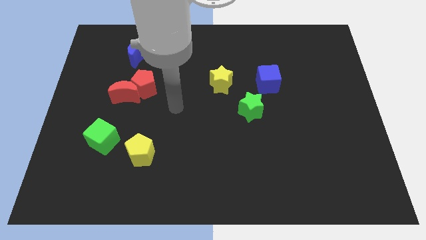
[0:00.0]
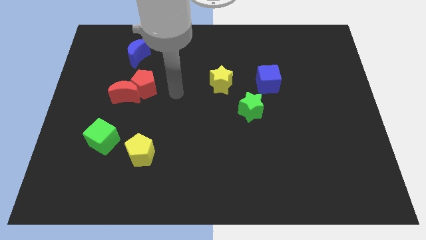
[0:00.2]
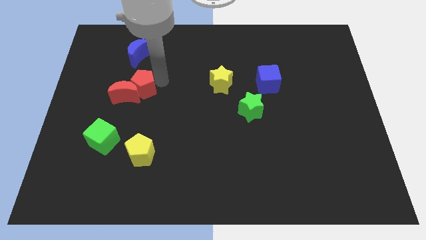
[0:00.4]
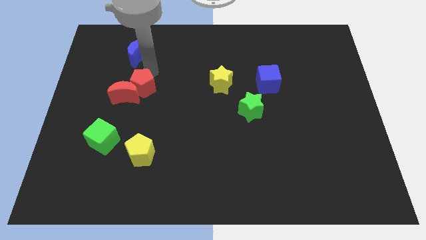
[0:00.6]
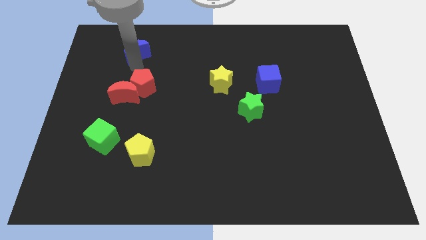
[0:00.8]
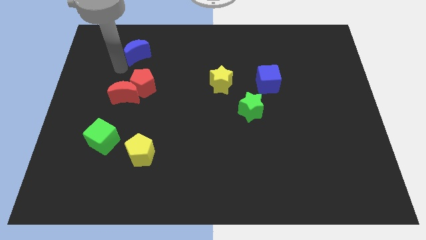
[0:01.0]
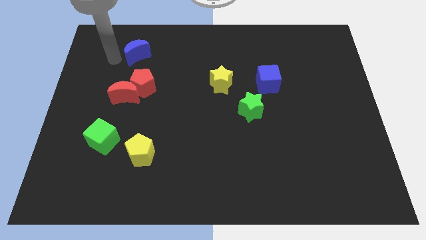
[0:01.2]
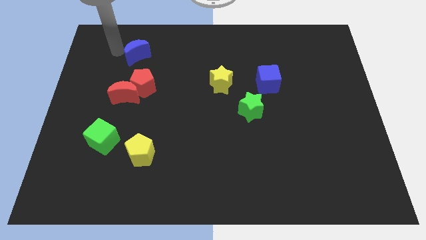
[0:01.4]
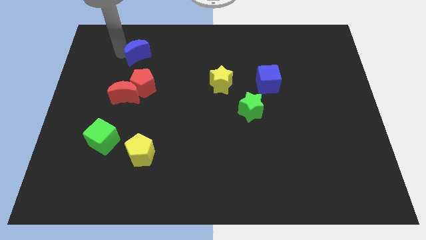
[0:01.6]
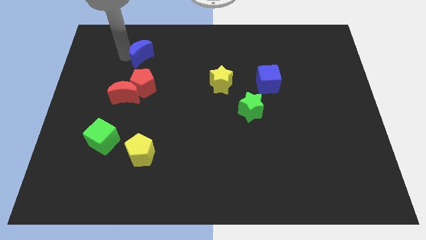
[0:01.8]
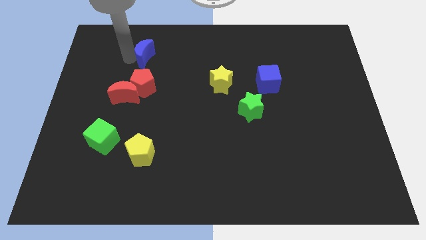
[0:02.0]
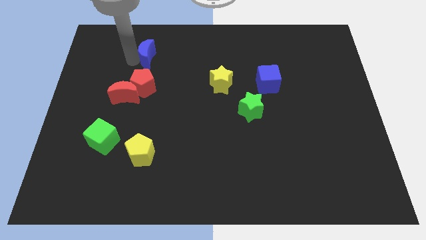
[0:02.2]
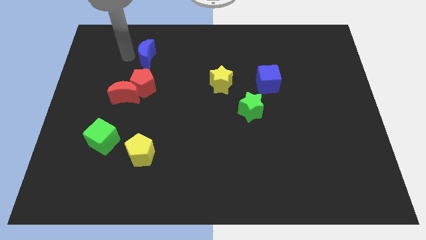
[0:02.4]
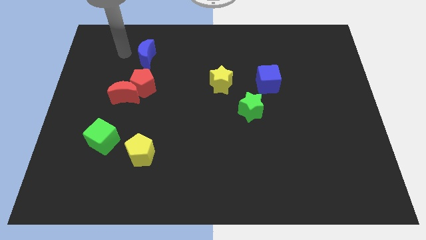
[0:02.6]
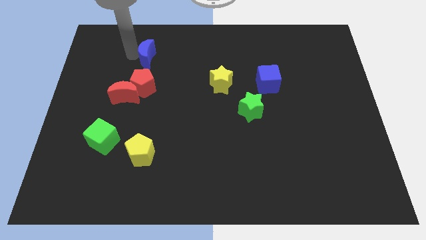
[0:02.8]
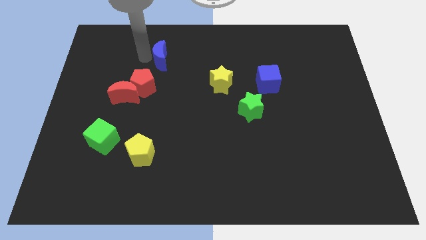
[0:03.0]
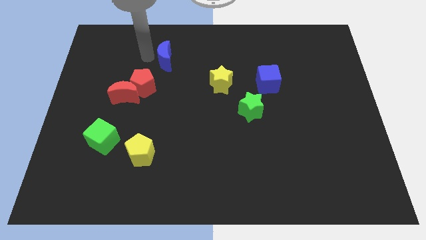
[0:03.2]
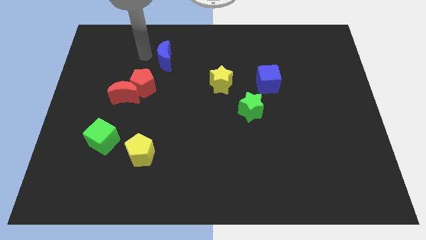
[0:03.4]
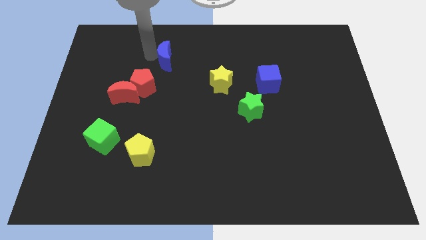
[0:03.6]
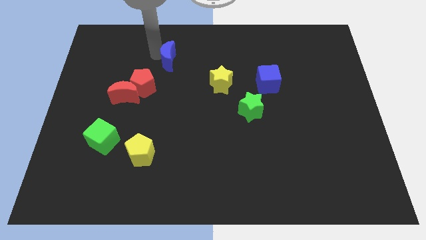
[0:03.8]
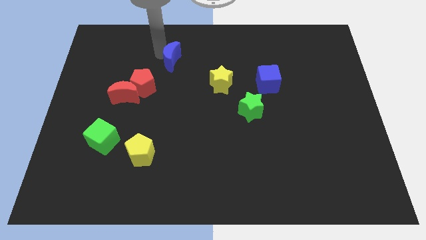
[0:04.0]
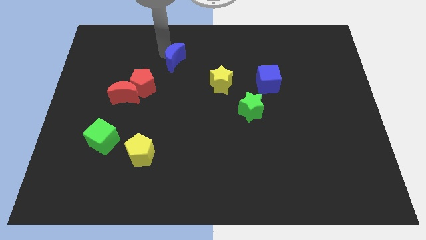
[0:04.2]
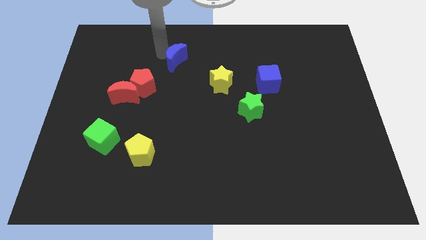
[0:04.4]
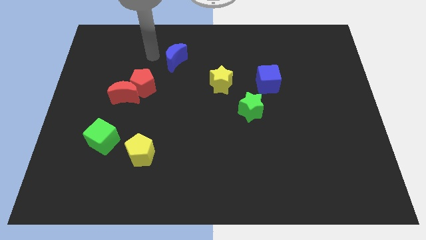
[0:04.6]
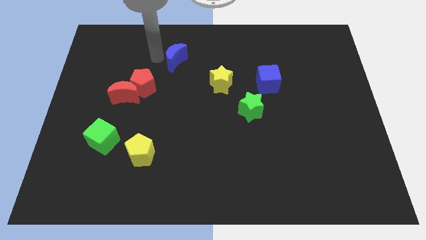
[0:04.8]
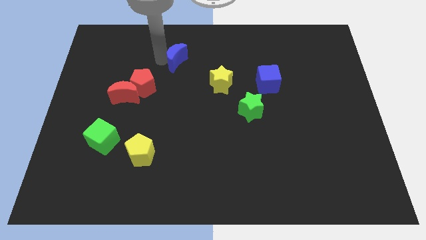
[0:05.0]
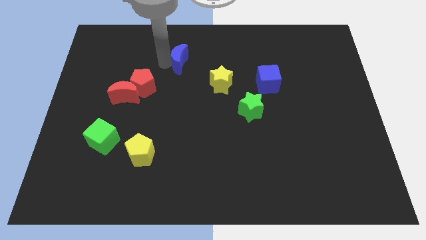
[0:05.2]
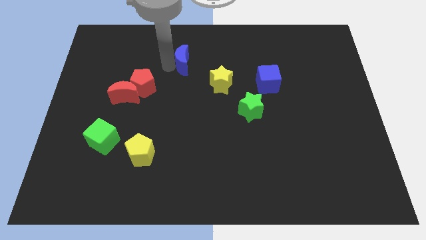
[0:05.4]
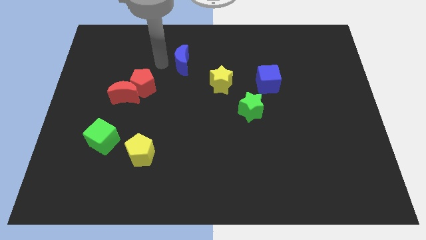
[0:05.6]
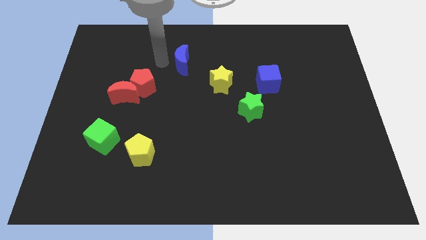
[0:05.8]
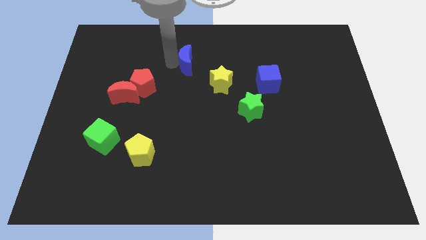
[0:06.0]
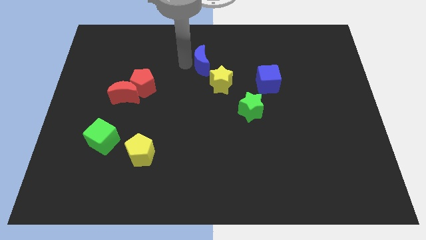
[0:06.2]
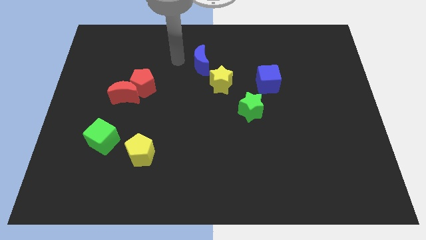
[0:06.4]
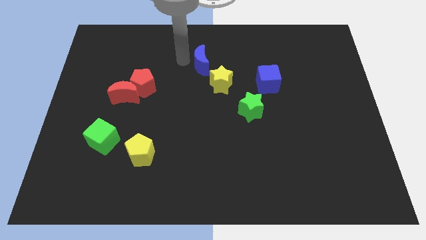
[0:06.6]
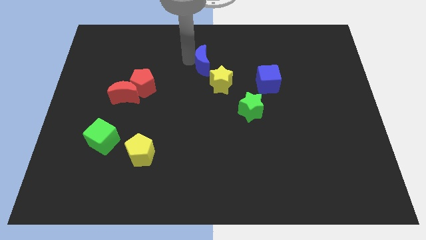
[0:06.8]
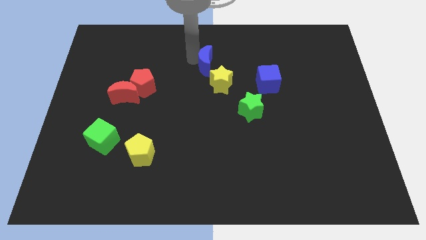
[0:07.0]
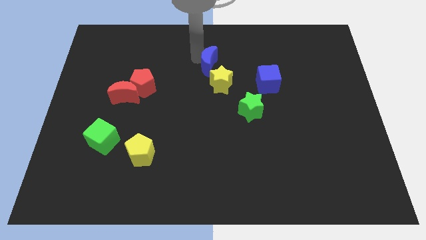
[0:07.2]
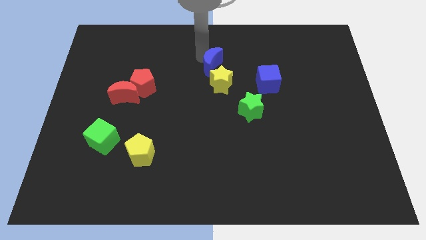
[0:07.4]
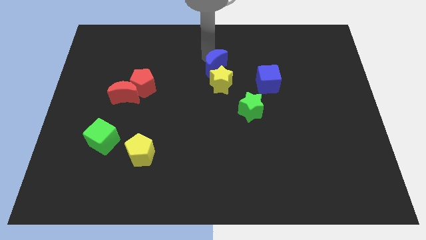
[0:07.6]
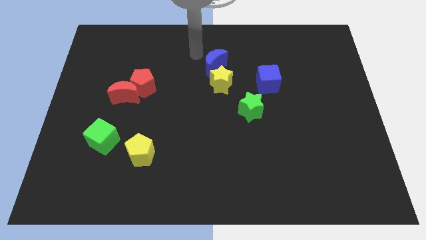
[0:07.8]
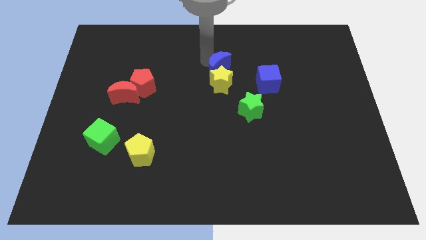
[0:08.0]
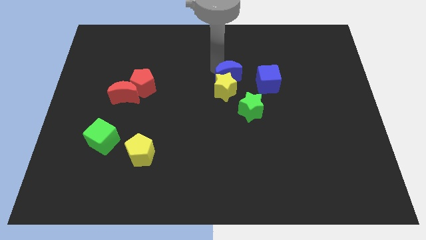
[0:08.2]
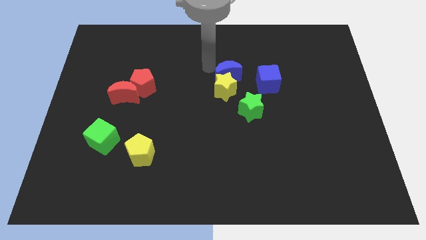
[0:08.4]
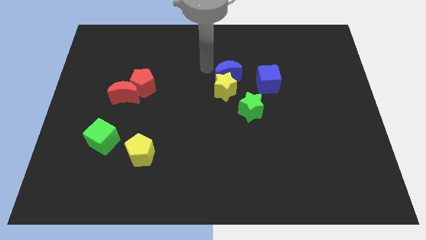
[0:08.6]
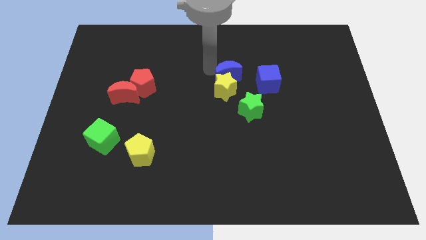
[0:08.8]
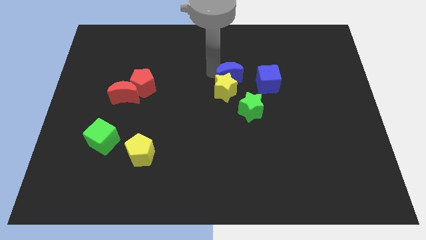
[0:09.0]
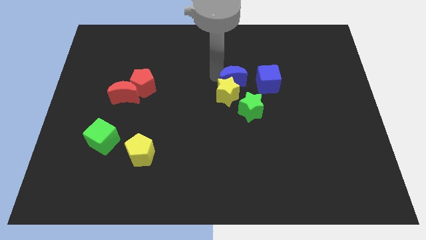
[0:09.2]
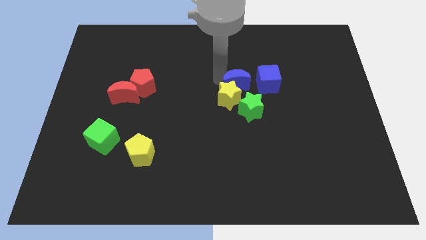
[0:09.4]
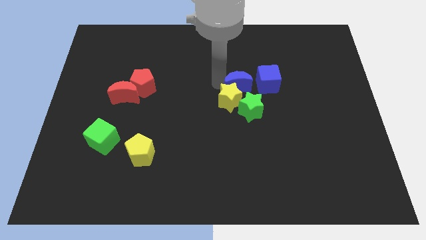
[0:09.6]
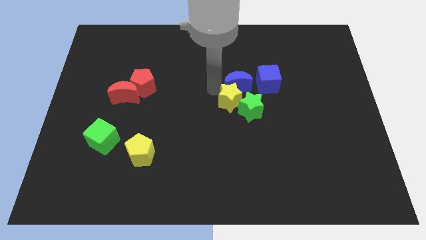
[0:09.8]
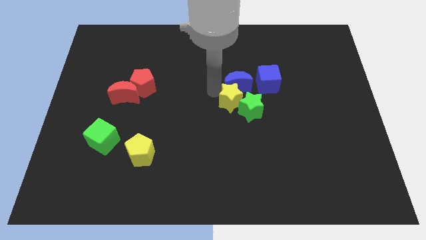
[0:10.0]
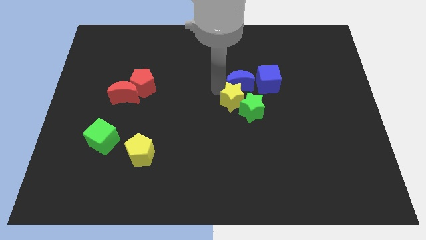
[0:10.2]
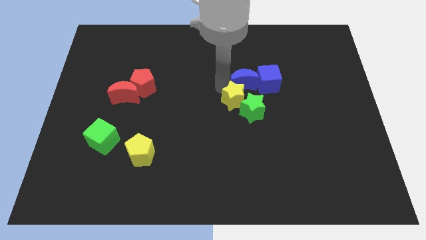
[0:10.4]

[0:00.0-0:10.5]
move the blue moon close to the blue cube

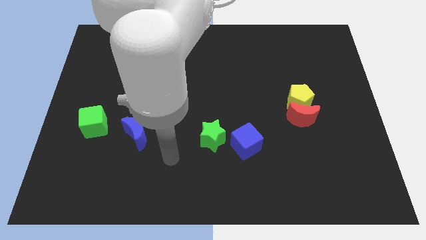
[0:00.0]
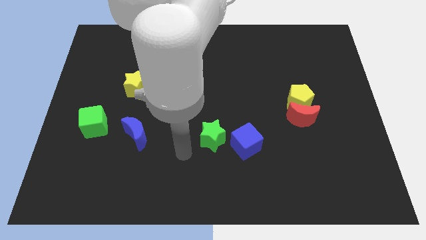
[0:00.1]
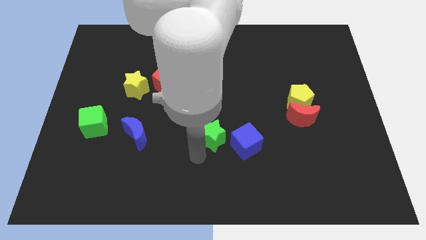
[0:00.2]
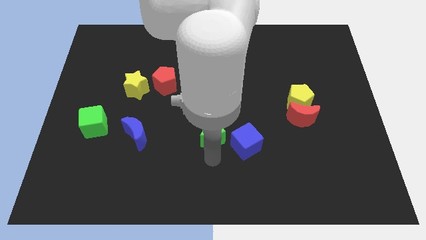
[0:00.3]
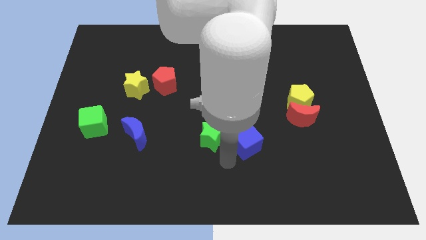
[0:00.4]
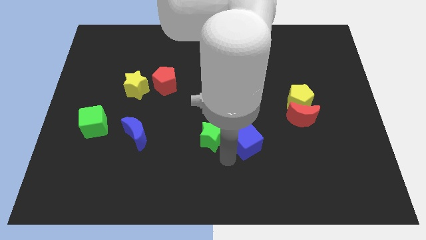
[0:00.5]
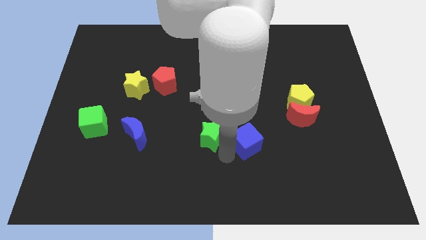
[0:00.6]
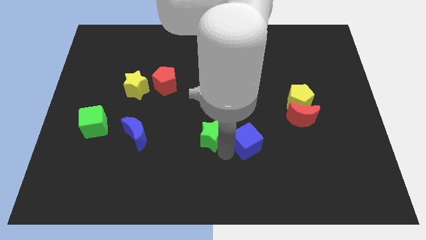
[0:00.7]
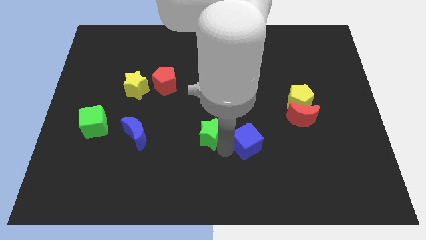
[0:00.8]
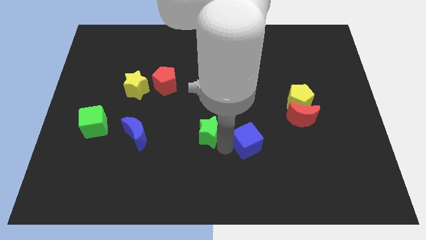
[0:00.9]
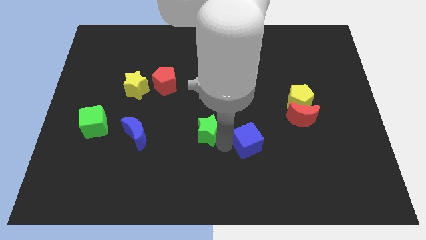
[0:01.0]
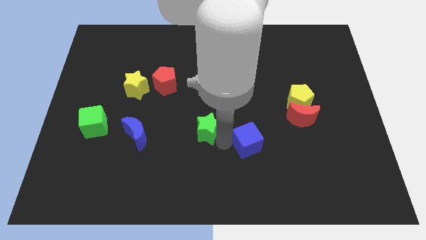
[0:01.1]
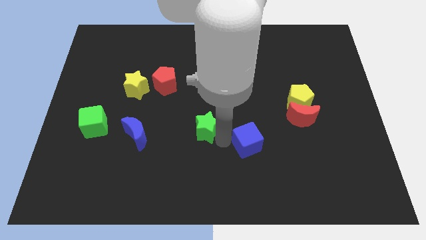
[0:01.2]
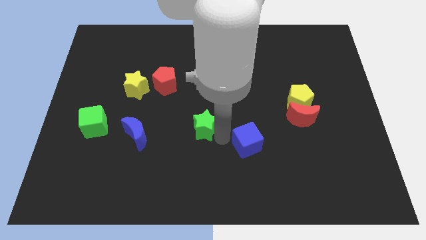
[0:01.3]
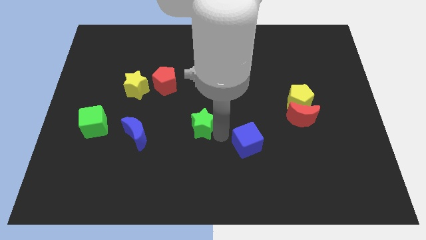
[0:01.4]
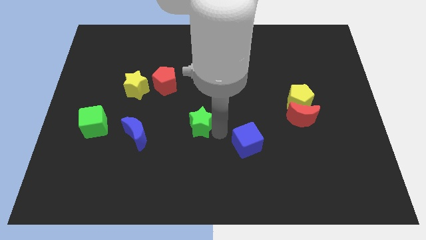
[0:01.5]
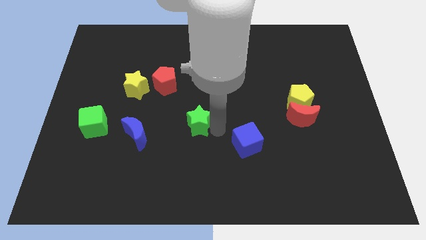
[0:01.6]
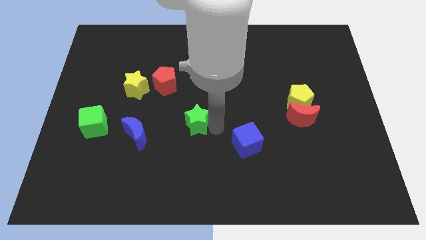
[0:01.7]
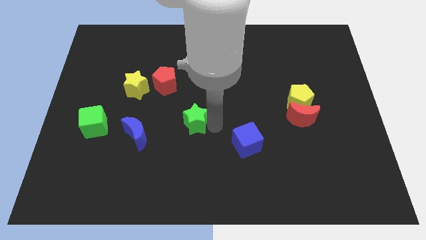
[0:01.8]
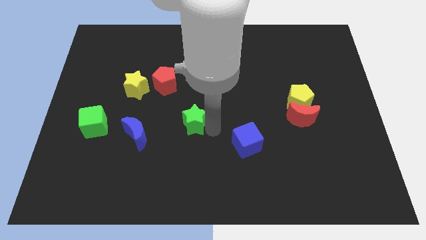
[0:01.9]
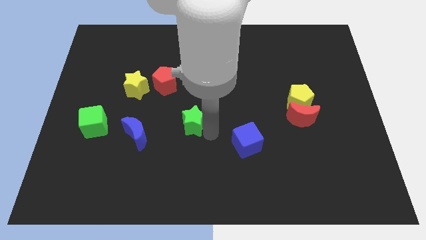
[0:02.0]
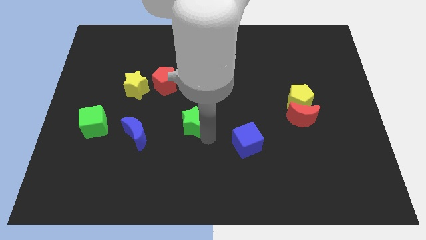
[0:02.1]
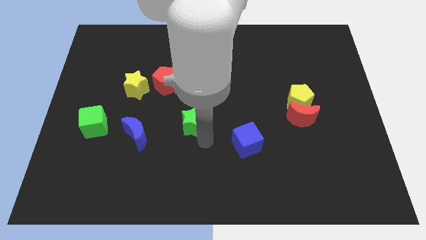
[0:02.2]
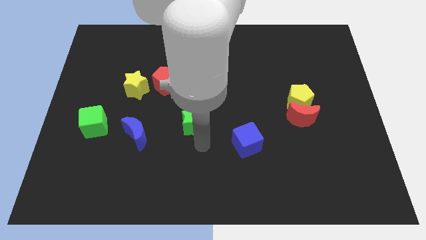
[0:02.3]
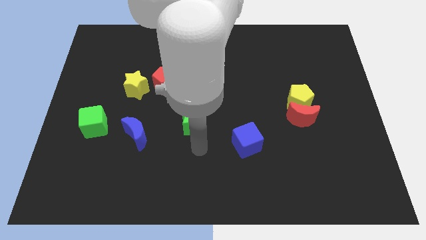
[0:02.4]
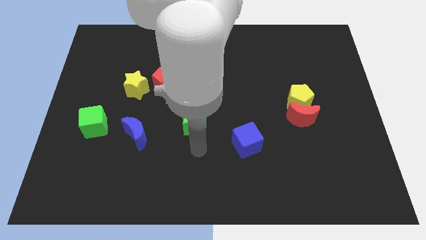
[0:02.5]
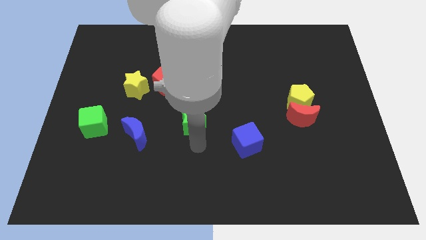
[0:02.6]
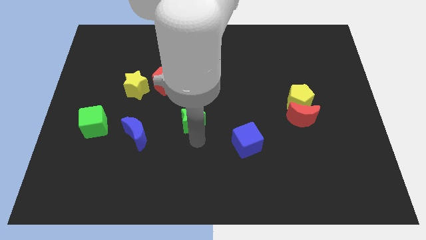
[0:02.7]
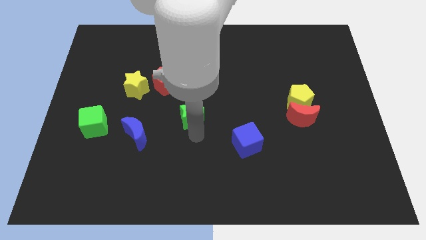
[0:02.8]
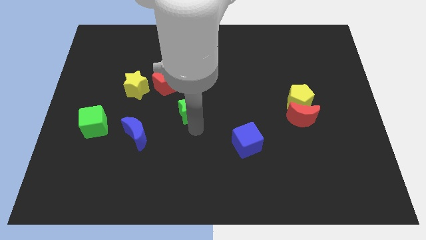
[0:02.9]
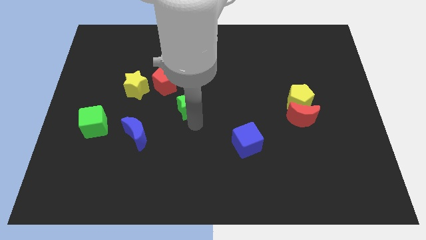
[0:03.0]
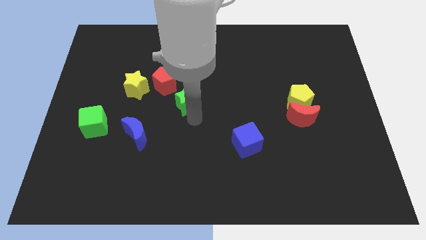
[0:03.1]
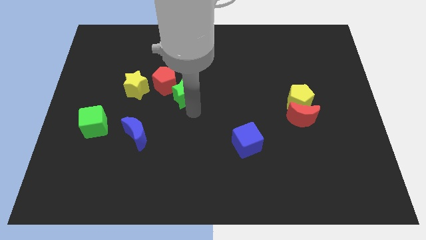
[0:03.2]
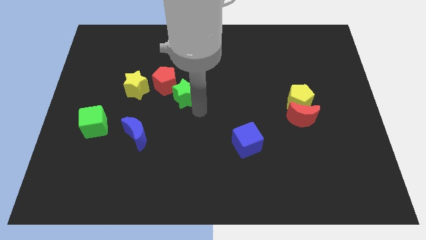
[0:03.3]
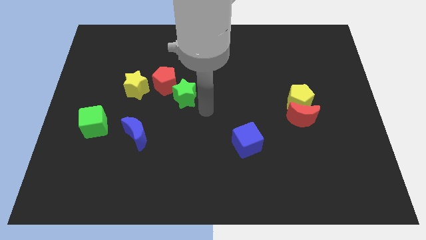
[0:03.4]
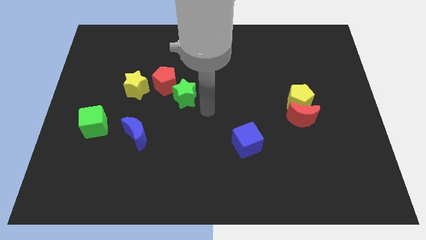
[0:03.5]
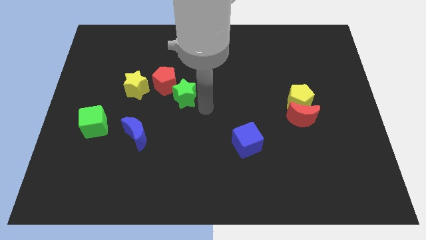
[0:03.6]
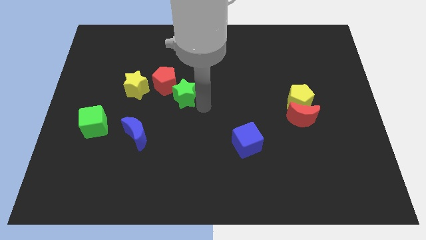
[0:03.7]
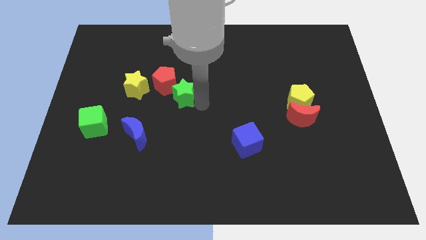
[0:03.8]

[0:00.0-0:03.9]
move the green star to the red pentagon
